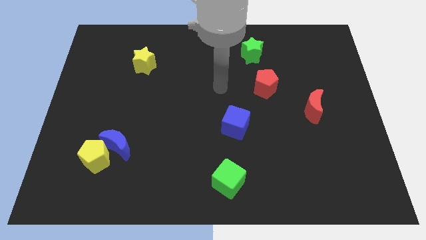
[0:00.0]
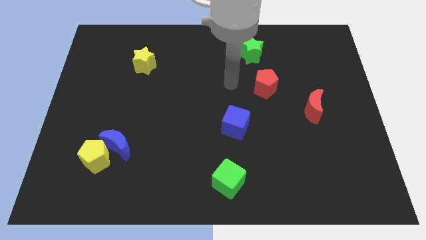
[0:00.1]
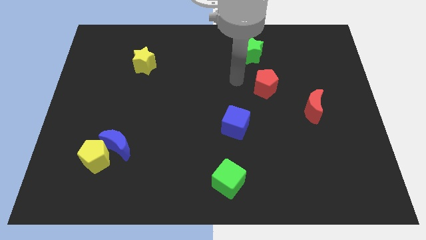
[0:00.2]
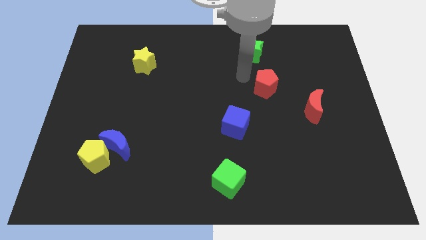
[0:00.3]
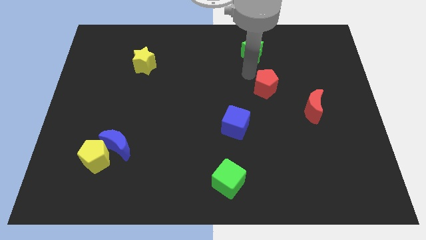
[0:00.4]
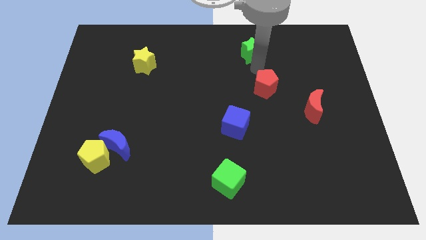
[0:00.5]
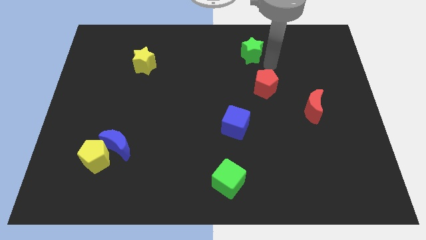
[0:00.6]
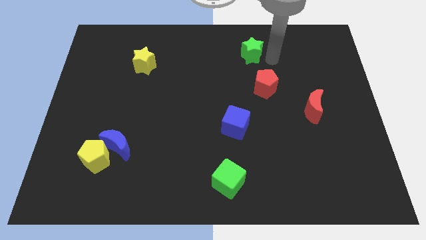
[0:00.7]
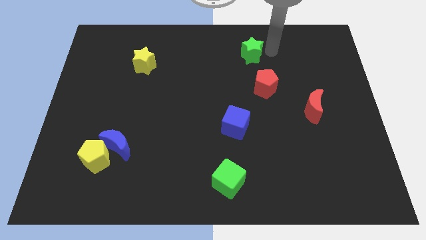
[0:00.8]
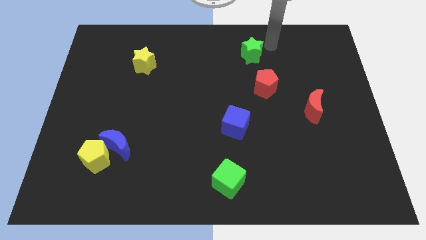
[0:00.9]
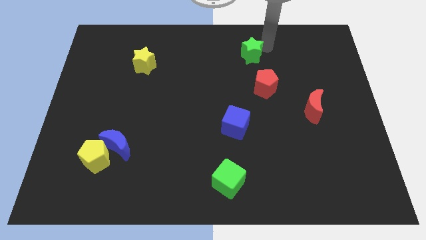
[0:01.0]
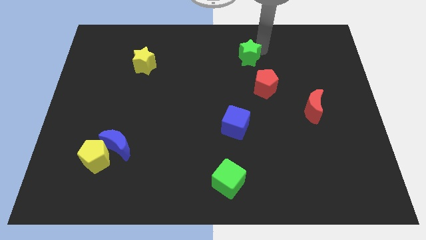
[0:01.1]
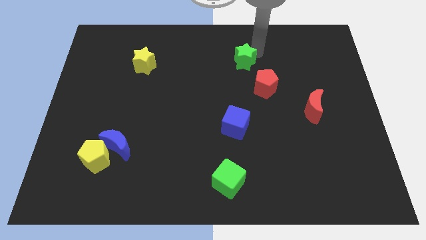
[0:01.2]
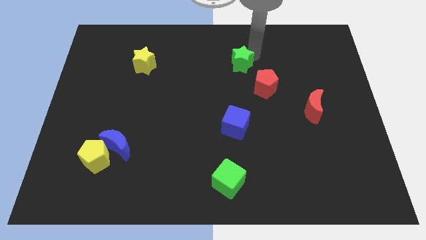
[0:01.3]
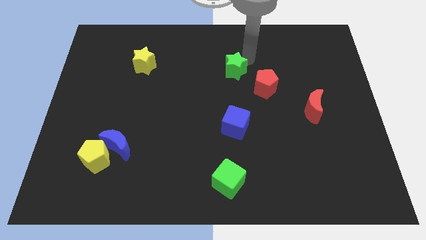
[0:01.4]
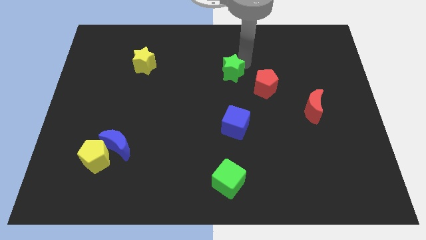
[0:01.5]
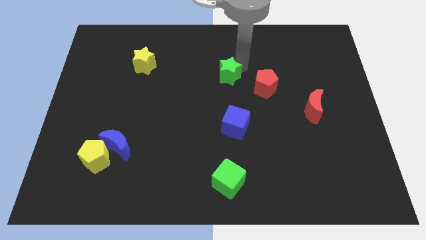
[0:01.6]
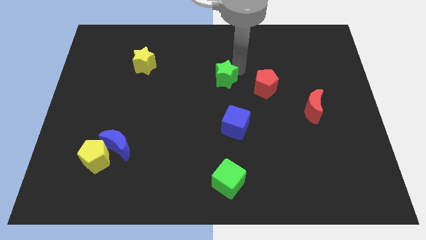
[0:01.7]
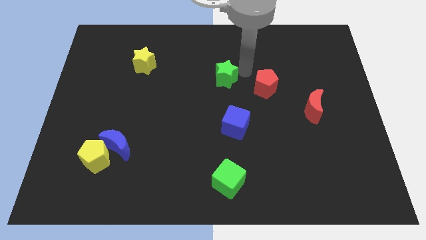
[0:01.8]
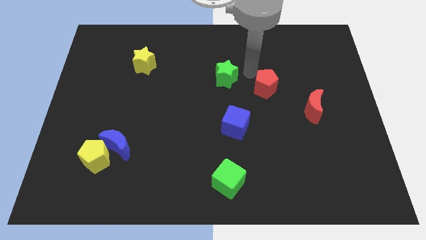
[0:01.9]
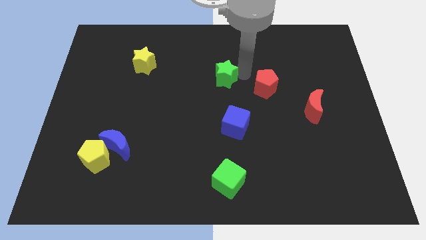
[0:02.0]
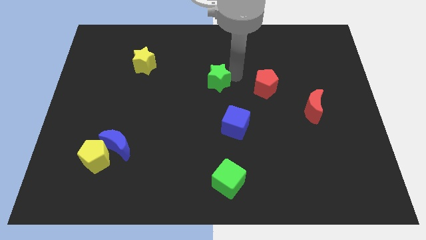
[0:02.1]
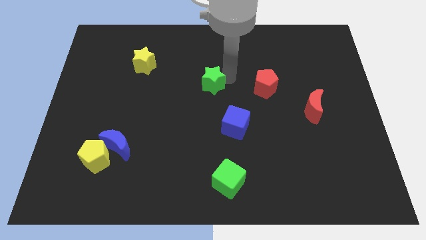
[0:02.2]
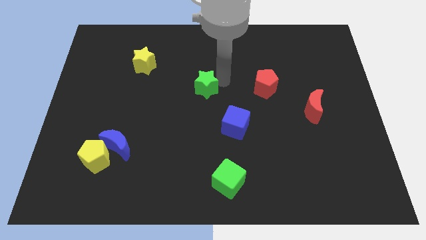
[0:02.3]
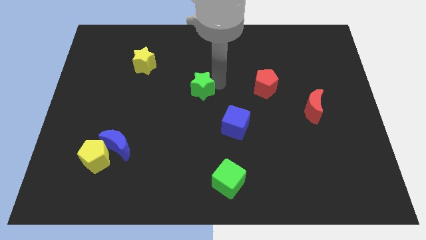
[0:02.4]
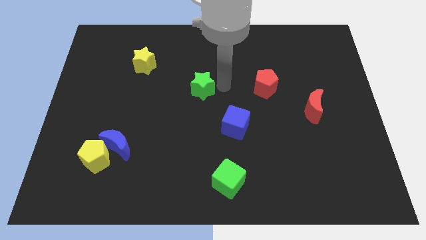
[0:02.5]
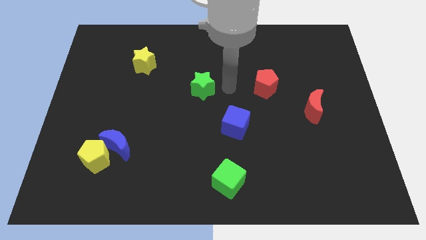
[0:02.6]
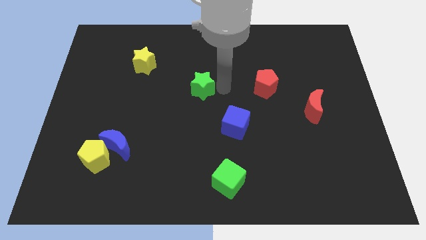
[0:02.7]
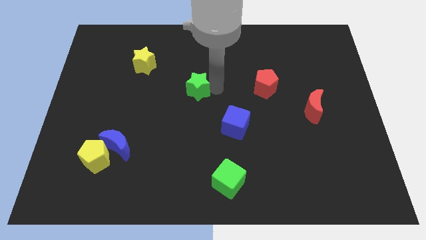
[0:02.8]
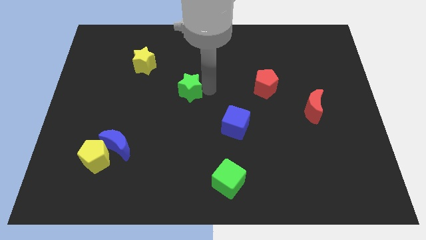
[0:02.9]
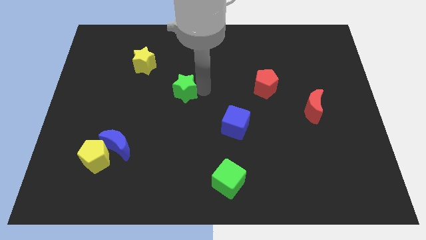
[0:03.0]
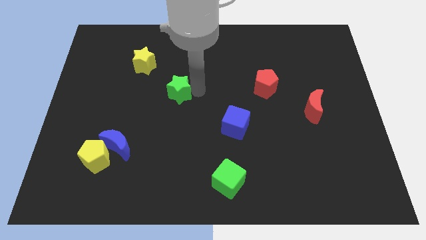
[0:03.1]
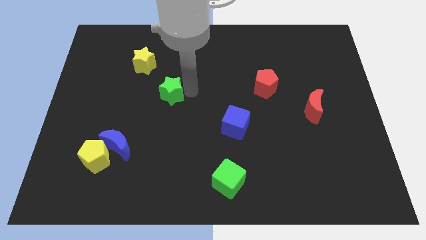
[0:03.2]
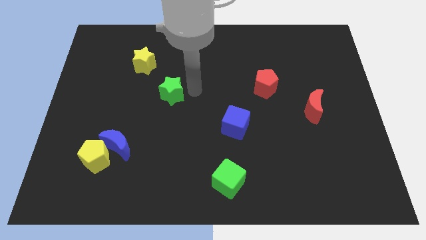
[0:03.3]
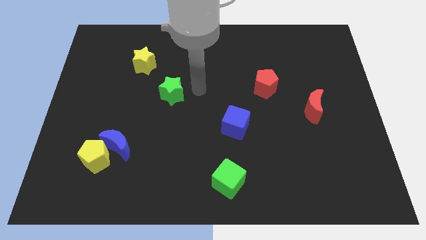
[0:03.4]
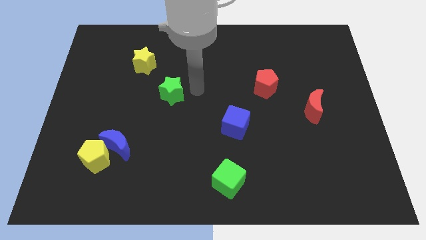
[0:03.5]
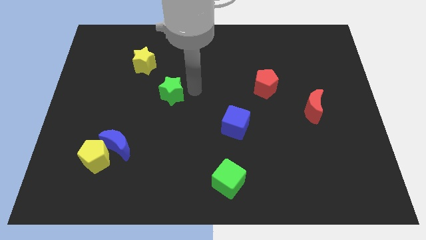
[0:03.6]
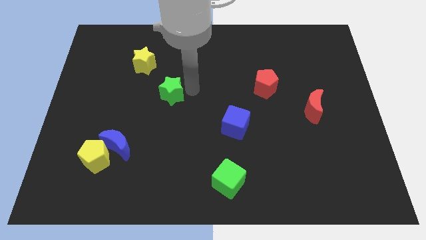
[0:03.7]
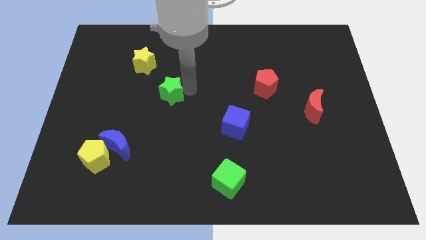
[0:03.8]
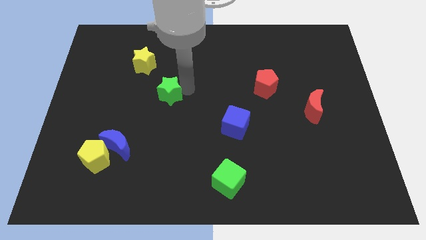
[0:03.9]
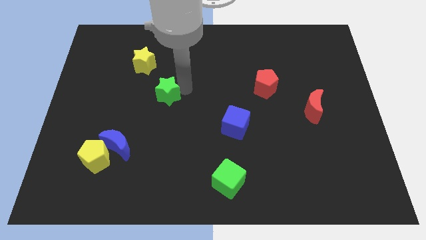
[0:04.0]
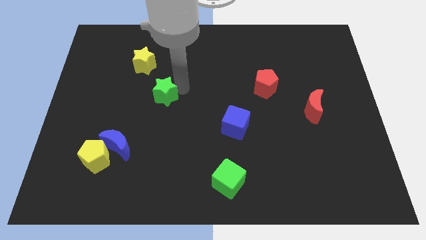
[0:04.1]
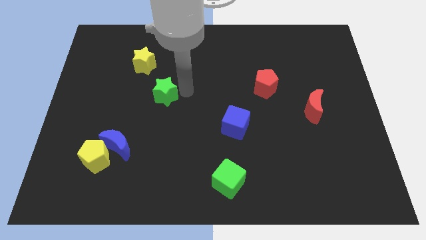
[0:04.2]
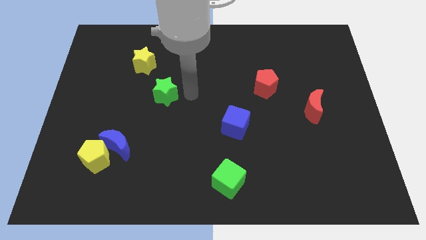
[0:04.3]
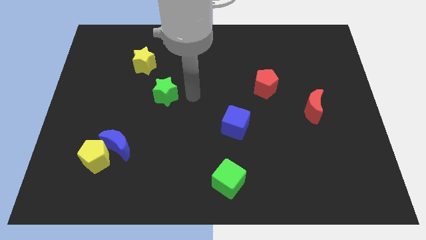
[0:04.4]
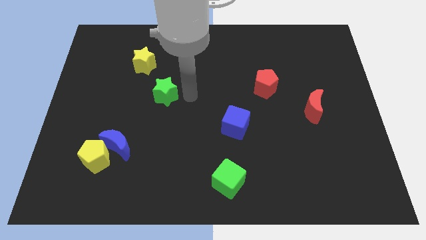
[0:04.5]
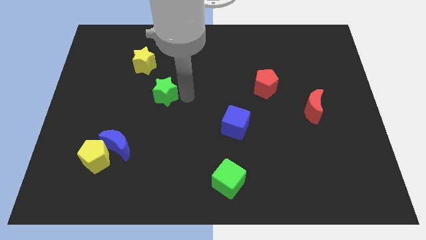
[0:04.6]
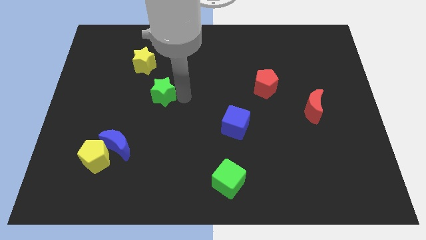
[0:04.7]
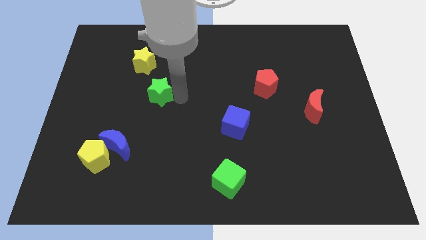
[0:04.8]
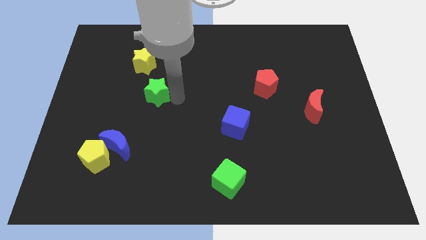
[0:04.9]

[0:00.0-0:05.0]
push the green star below the yellow star

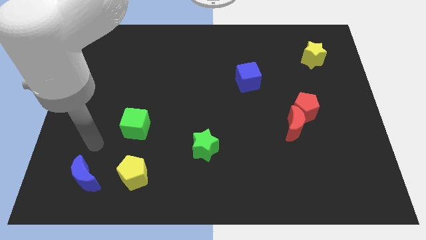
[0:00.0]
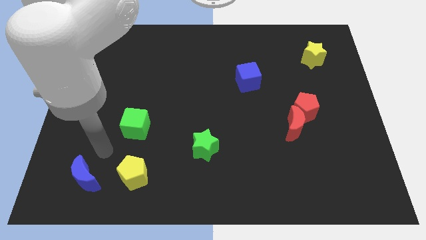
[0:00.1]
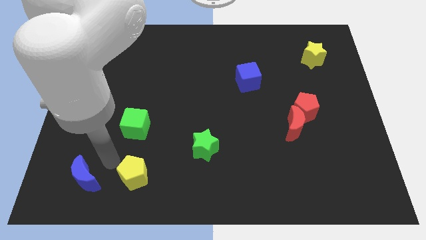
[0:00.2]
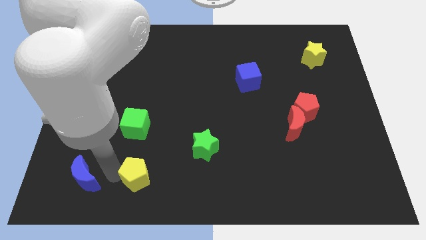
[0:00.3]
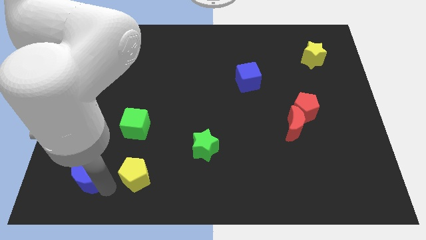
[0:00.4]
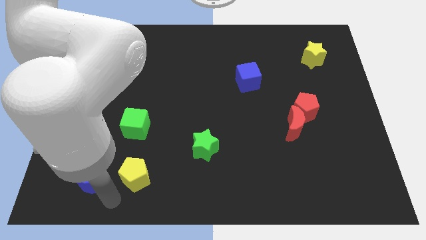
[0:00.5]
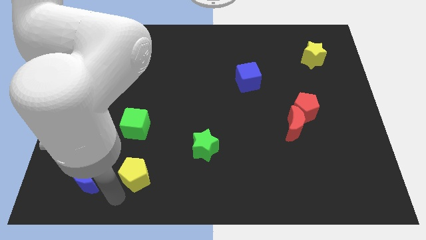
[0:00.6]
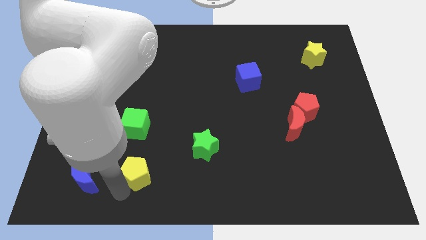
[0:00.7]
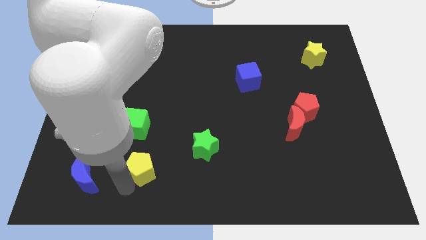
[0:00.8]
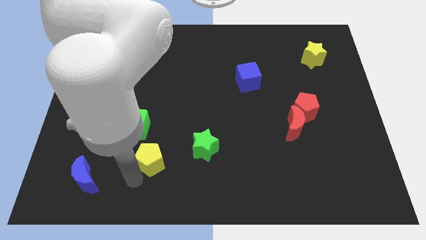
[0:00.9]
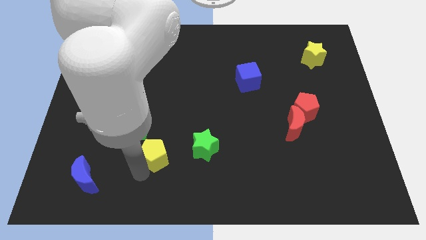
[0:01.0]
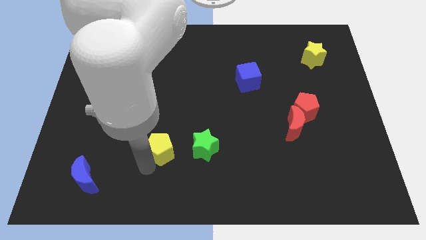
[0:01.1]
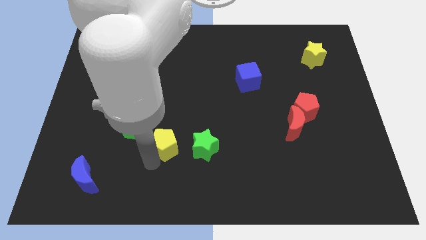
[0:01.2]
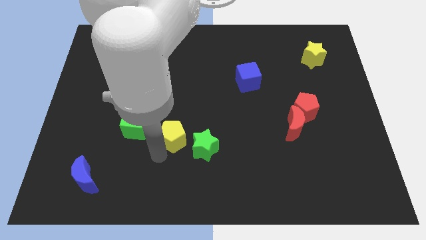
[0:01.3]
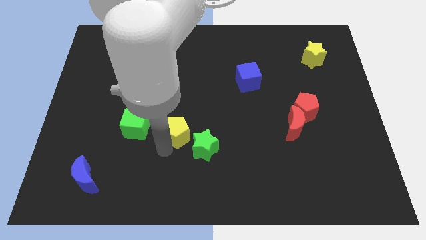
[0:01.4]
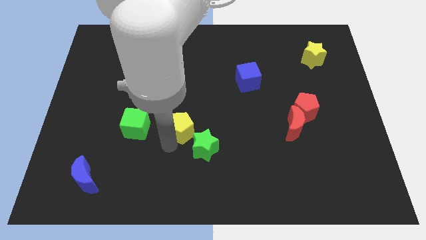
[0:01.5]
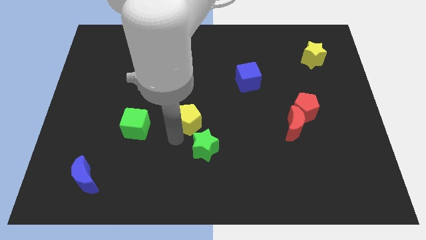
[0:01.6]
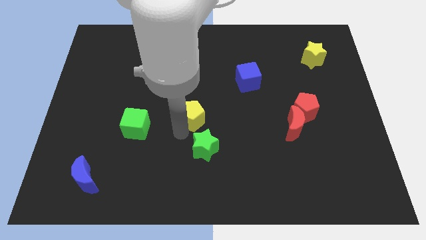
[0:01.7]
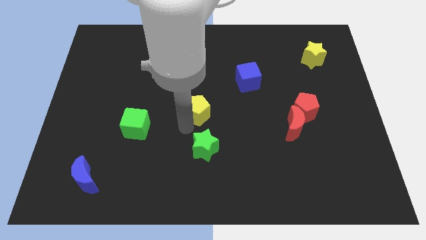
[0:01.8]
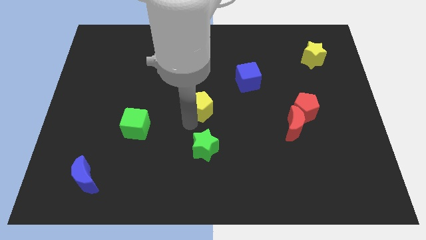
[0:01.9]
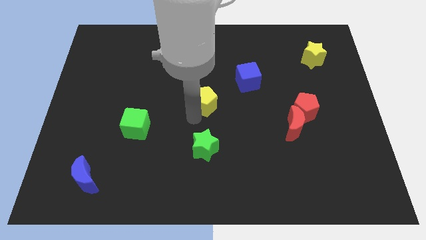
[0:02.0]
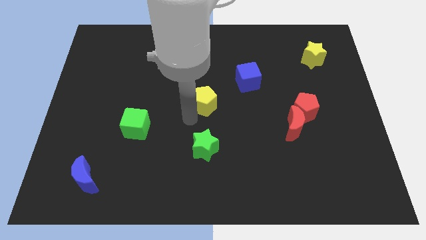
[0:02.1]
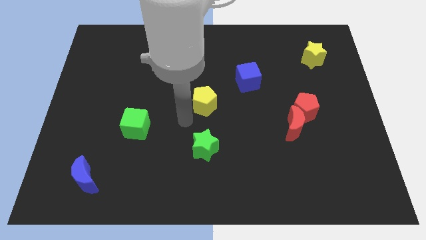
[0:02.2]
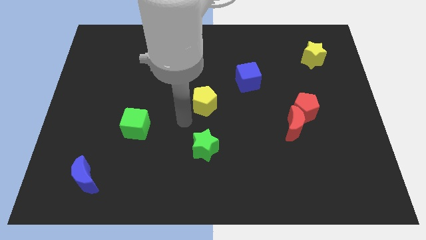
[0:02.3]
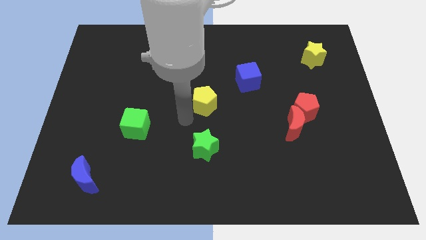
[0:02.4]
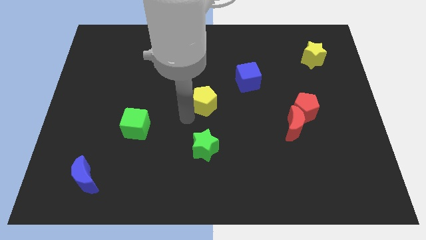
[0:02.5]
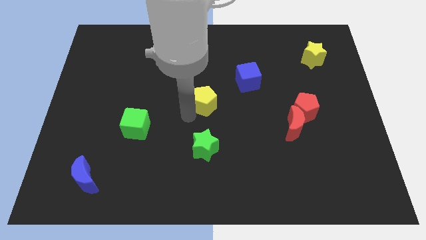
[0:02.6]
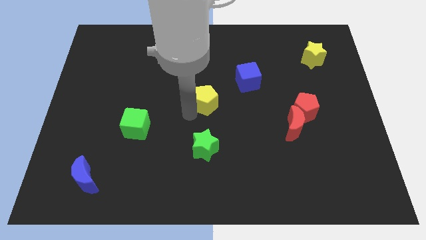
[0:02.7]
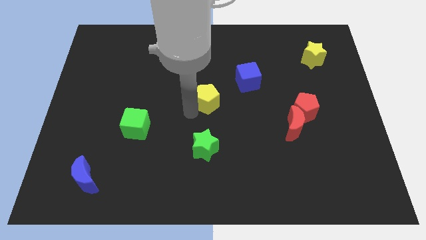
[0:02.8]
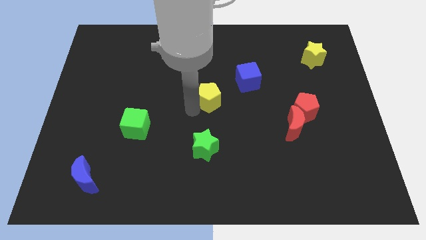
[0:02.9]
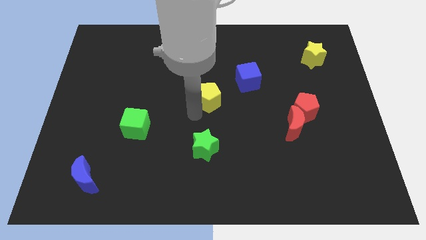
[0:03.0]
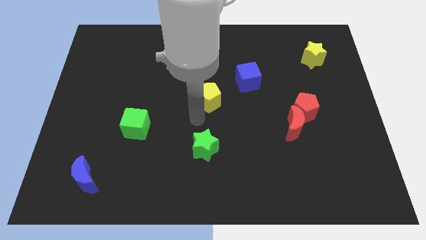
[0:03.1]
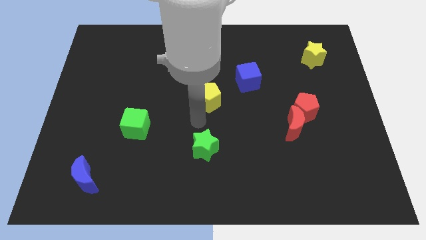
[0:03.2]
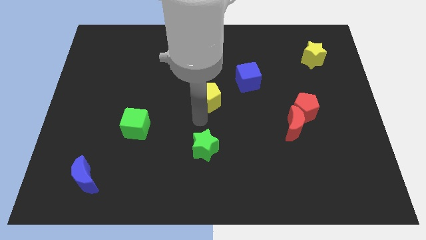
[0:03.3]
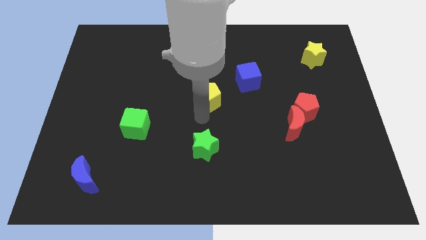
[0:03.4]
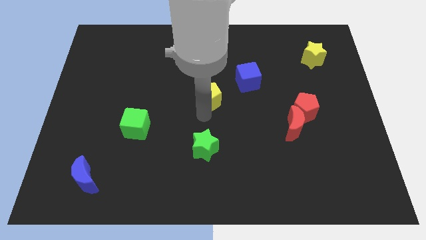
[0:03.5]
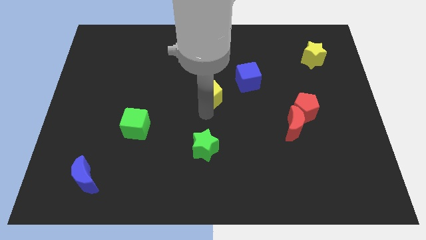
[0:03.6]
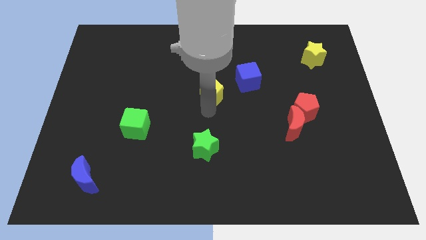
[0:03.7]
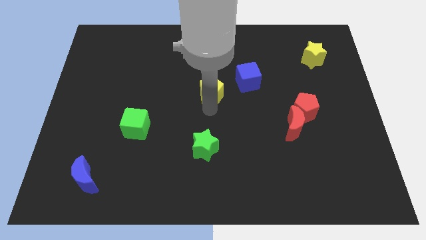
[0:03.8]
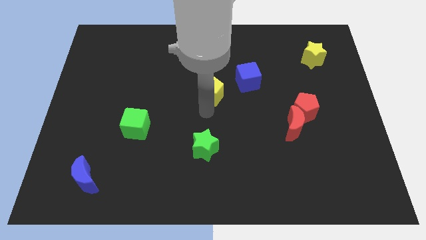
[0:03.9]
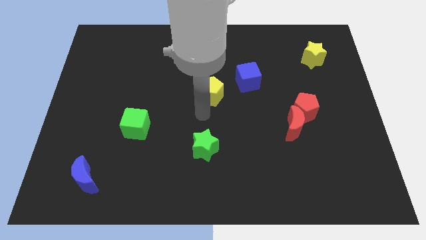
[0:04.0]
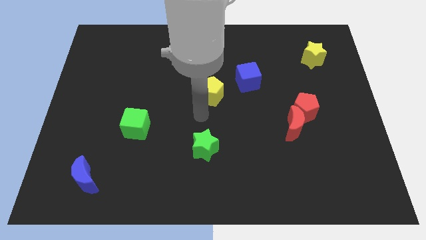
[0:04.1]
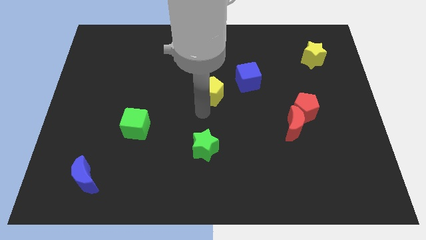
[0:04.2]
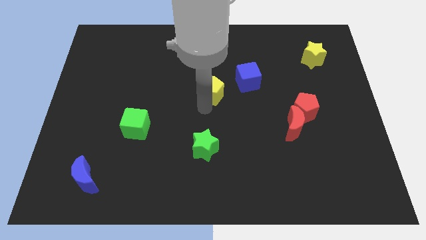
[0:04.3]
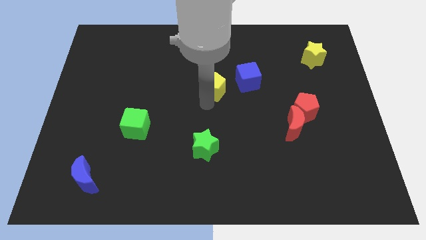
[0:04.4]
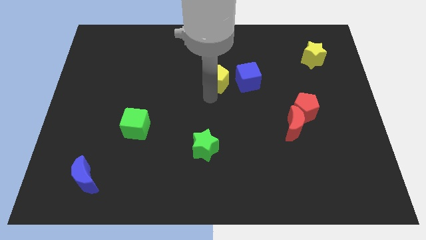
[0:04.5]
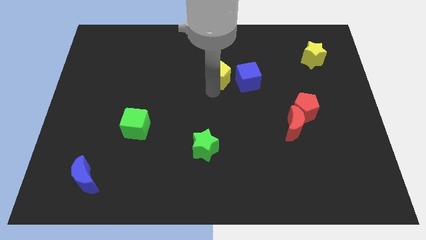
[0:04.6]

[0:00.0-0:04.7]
push the yellow pentagon to the top left side of the blue cube
